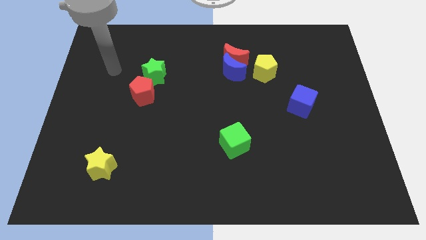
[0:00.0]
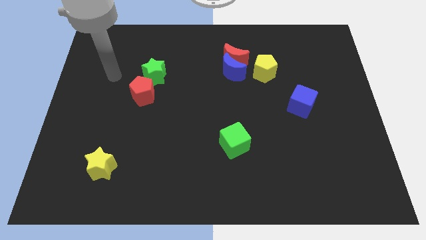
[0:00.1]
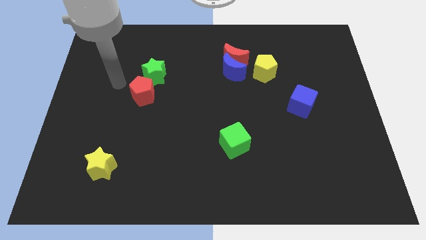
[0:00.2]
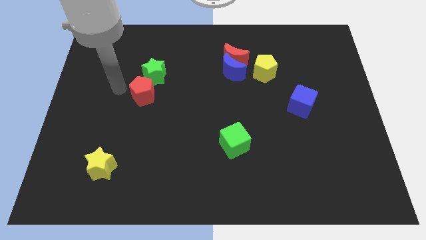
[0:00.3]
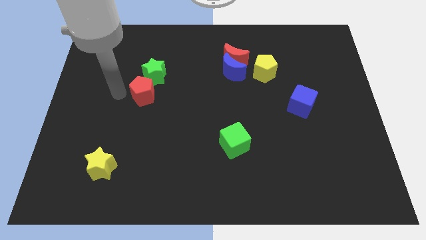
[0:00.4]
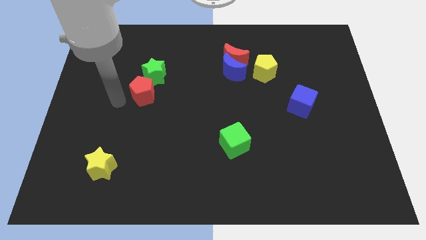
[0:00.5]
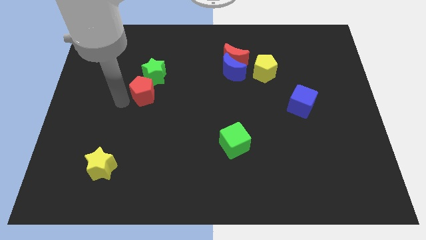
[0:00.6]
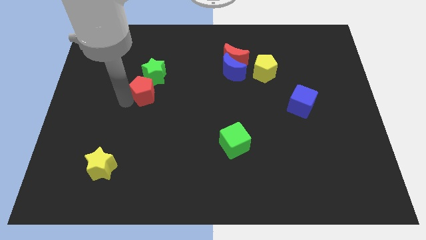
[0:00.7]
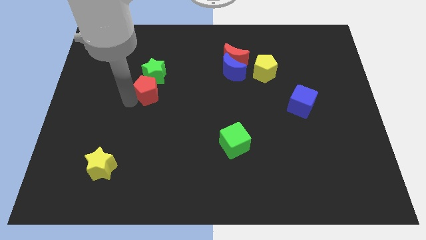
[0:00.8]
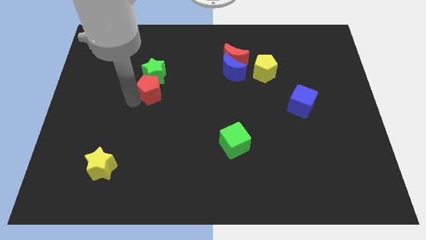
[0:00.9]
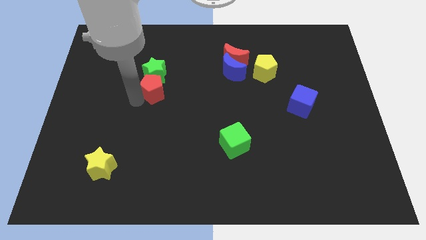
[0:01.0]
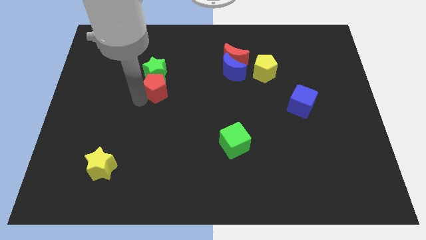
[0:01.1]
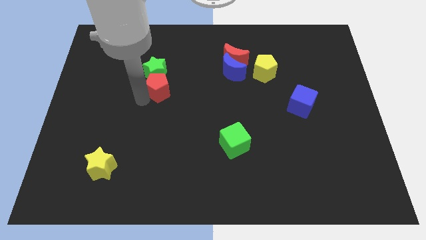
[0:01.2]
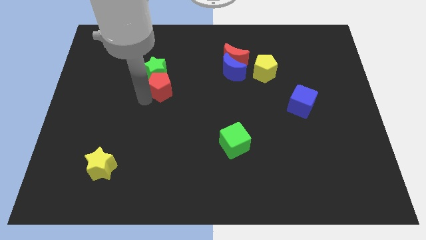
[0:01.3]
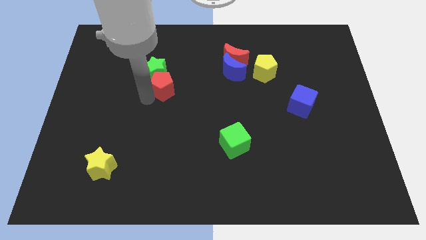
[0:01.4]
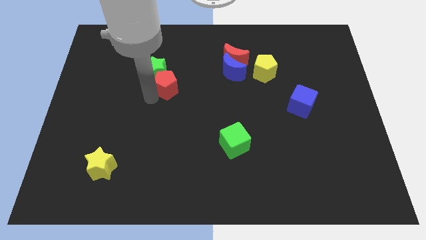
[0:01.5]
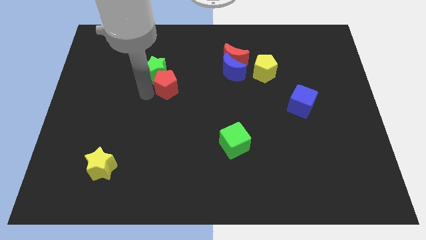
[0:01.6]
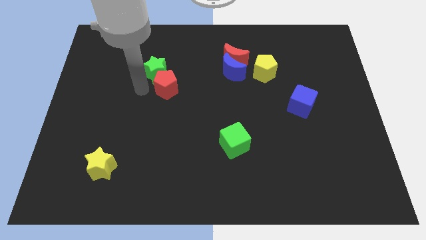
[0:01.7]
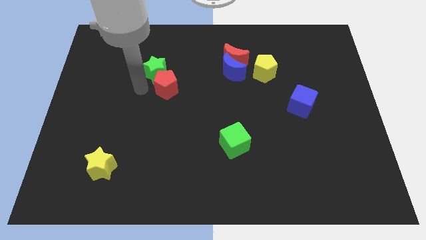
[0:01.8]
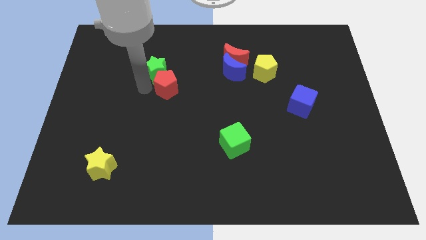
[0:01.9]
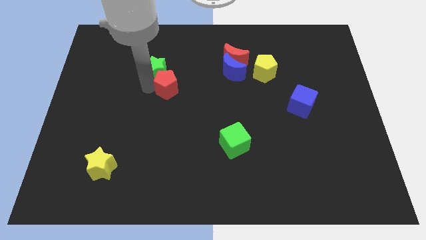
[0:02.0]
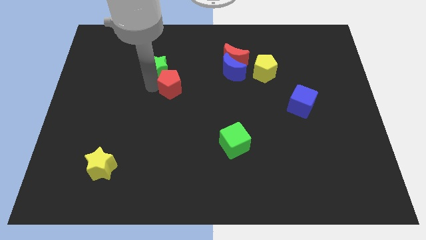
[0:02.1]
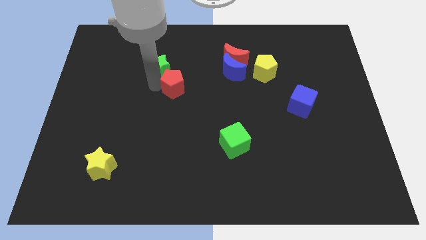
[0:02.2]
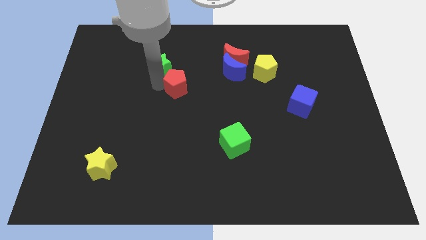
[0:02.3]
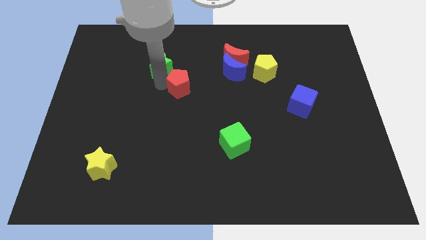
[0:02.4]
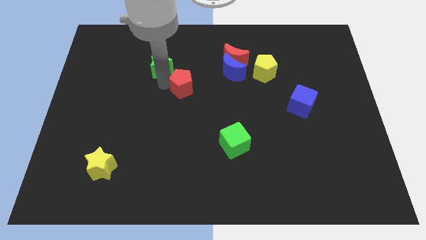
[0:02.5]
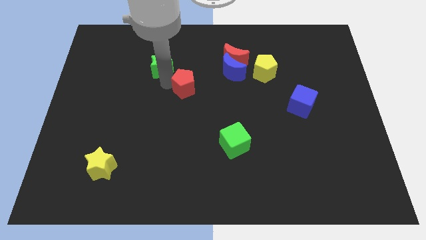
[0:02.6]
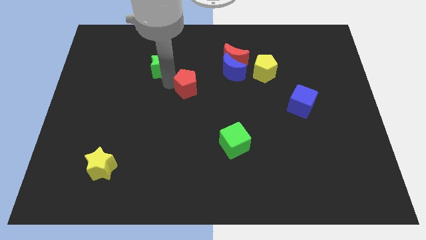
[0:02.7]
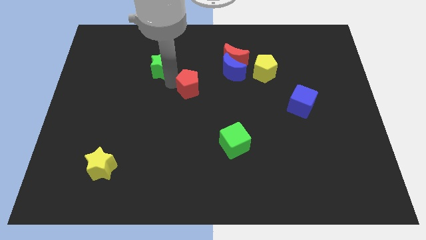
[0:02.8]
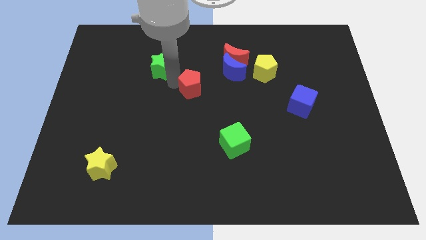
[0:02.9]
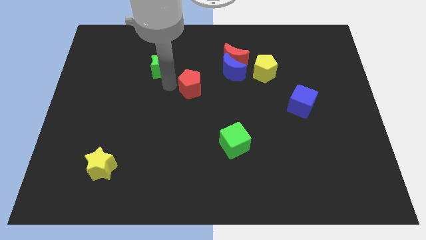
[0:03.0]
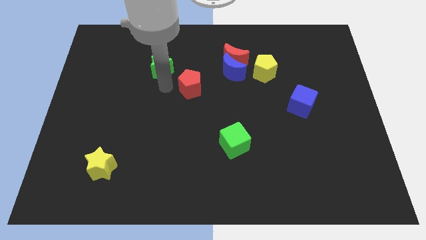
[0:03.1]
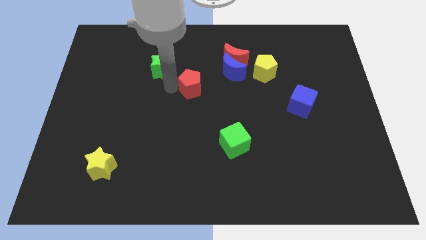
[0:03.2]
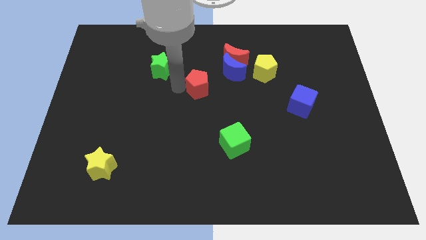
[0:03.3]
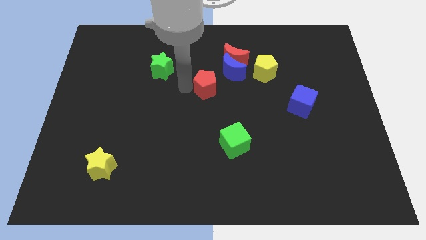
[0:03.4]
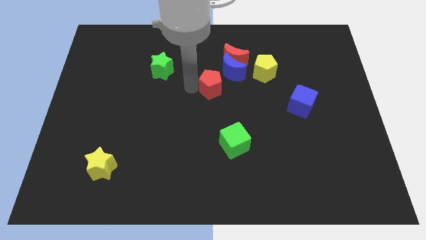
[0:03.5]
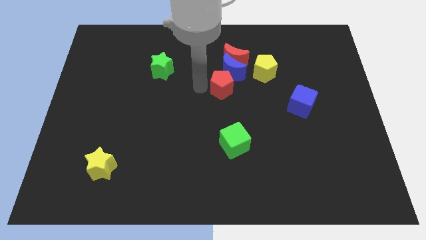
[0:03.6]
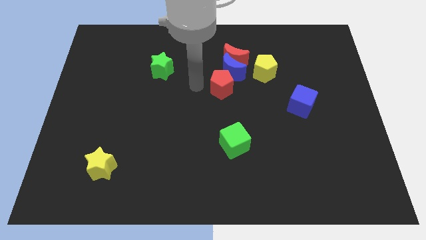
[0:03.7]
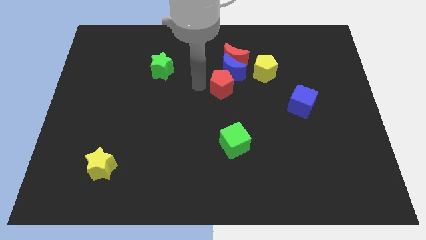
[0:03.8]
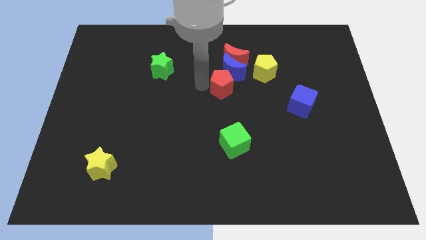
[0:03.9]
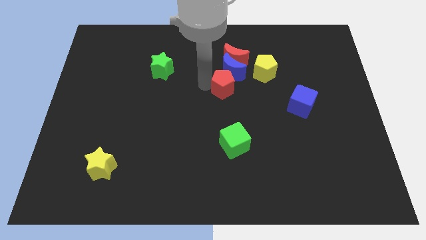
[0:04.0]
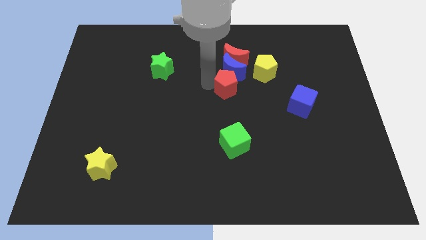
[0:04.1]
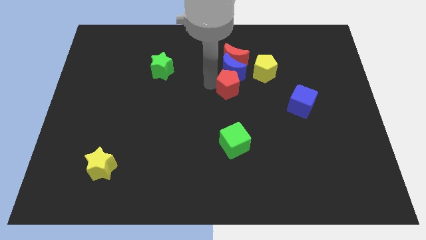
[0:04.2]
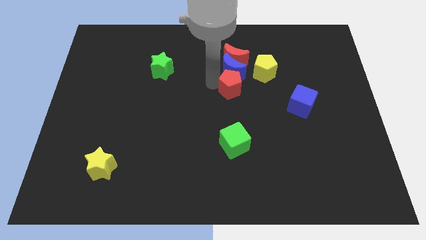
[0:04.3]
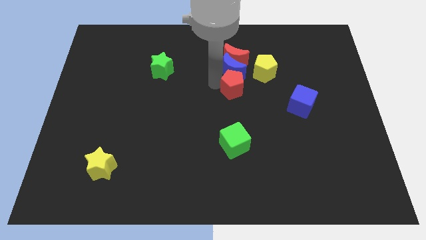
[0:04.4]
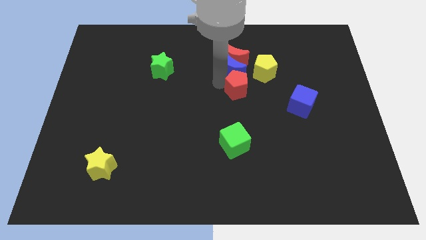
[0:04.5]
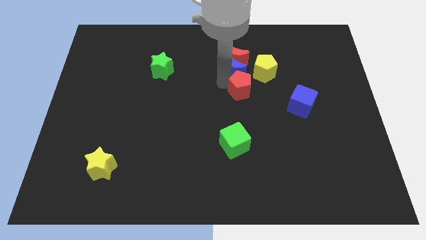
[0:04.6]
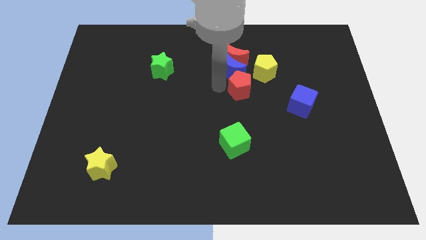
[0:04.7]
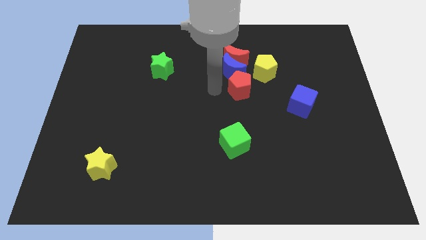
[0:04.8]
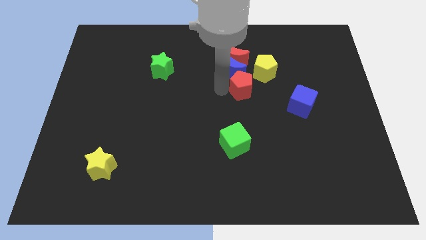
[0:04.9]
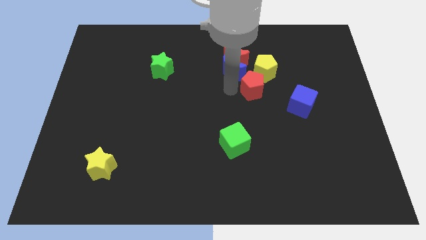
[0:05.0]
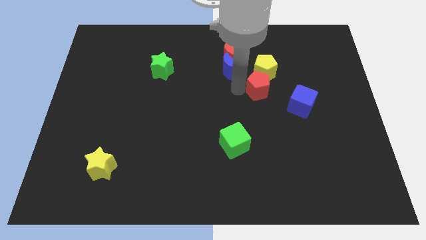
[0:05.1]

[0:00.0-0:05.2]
push the red pentagon diagonally up and to the left of the blue cube

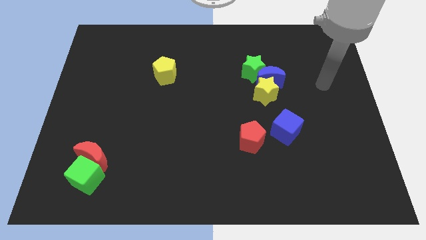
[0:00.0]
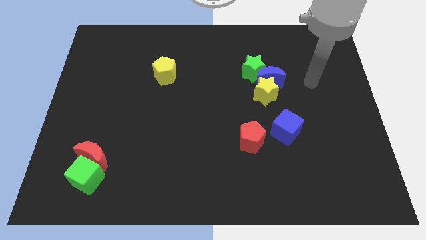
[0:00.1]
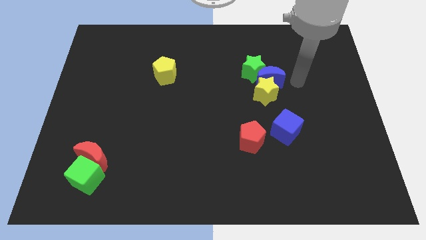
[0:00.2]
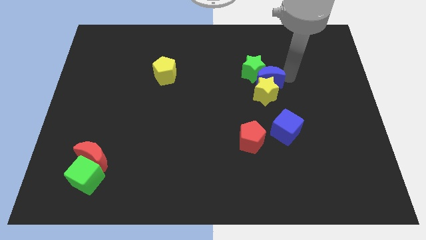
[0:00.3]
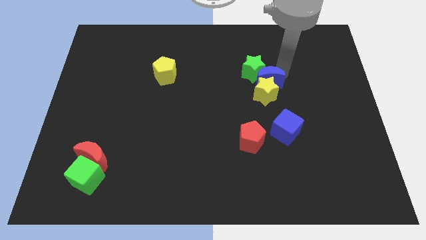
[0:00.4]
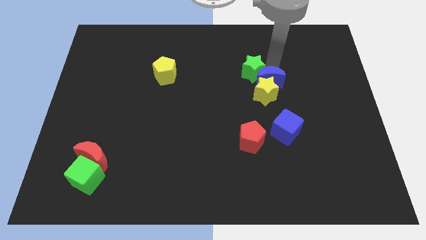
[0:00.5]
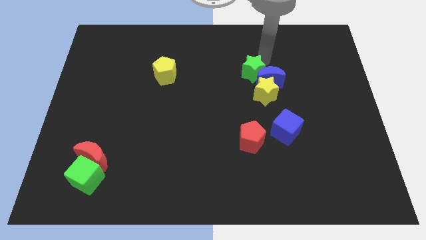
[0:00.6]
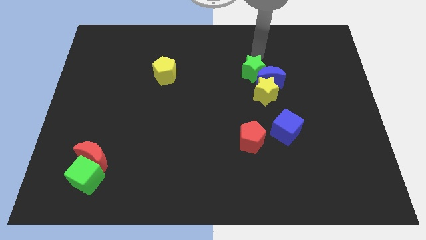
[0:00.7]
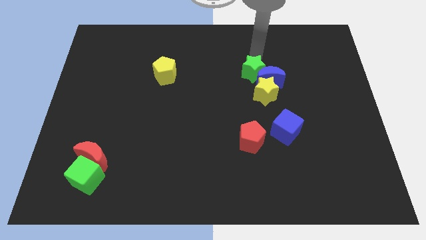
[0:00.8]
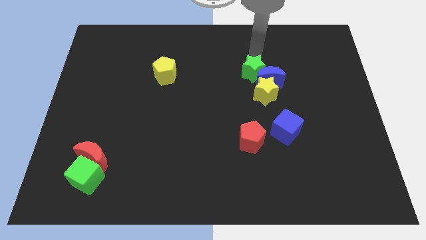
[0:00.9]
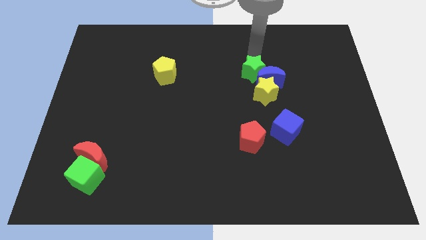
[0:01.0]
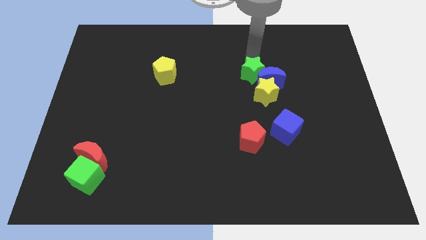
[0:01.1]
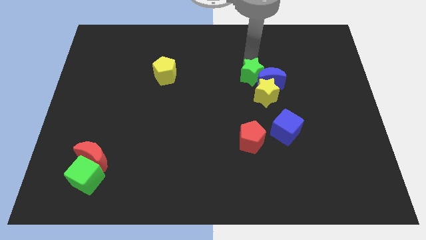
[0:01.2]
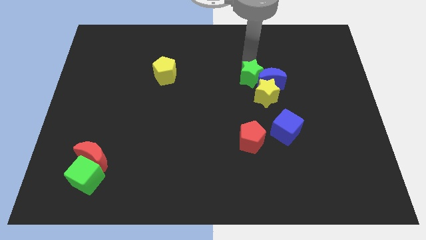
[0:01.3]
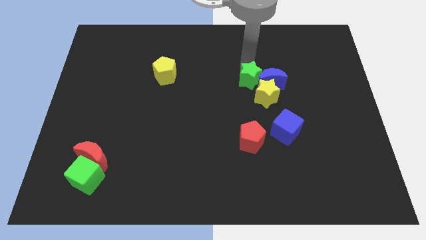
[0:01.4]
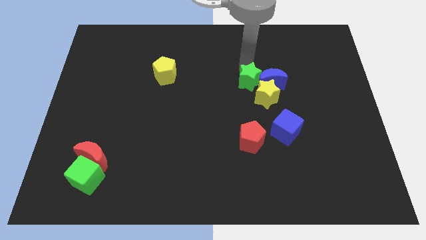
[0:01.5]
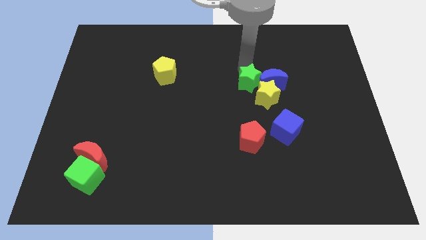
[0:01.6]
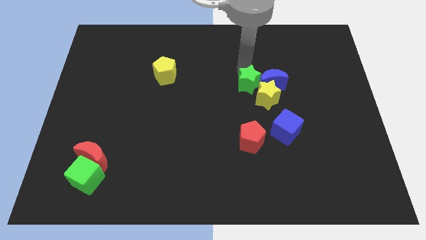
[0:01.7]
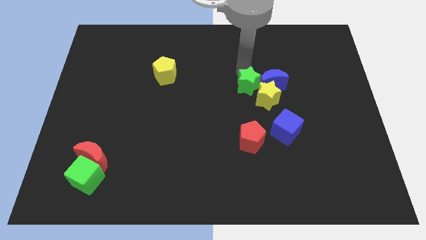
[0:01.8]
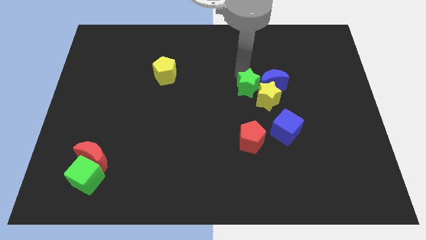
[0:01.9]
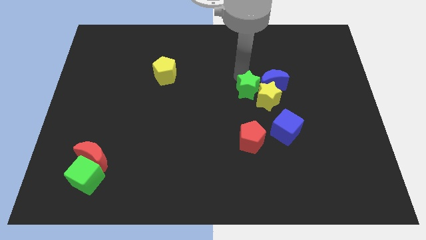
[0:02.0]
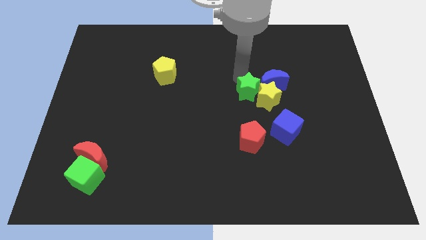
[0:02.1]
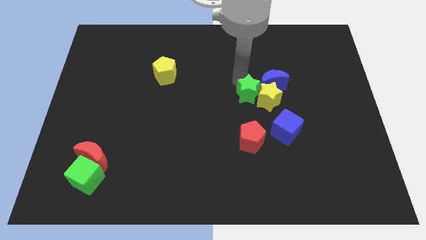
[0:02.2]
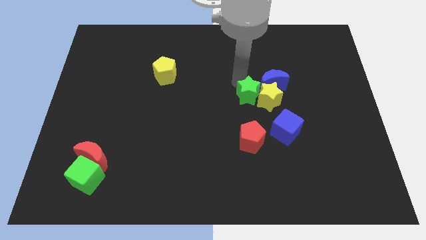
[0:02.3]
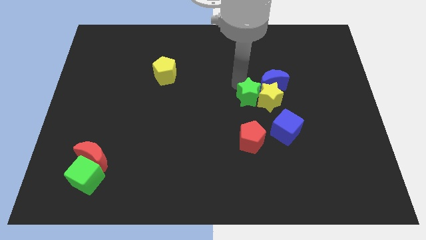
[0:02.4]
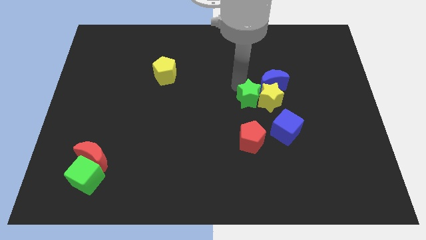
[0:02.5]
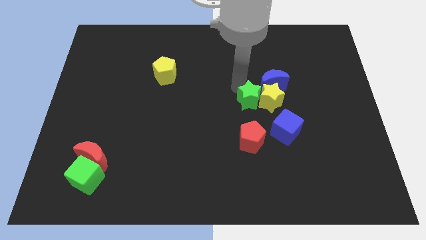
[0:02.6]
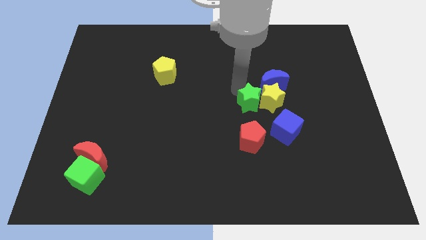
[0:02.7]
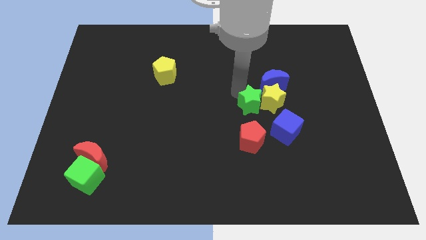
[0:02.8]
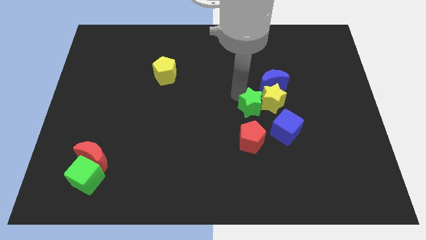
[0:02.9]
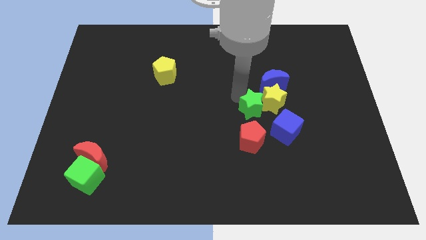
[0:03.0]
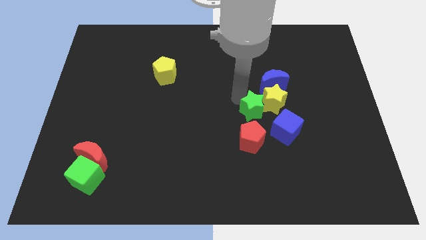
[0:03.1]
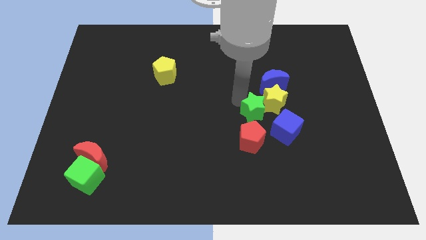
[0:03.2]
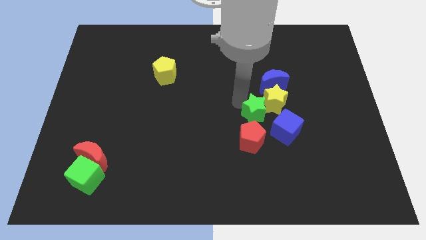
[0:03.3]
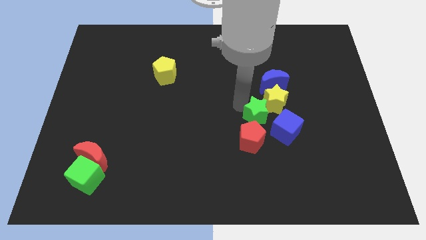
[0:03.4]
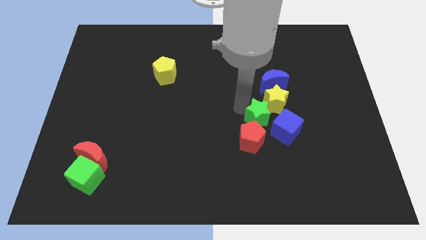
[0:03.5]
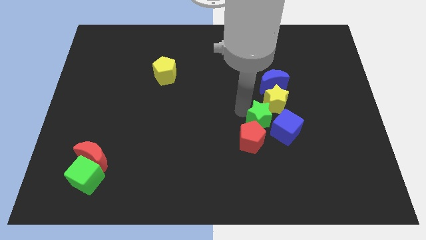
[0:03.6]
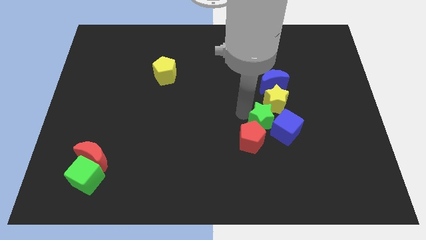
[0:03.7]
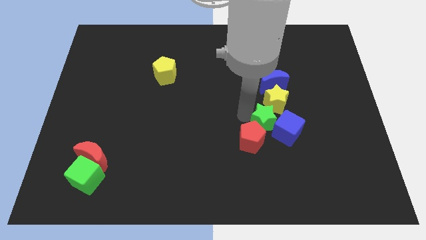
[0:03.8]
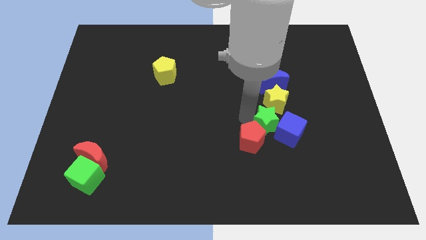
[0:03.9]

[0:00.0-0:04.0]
move the green star right of the red pentagon
